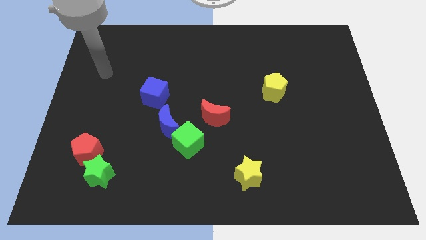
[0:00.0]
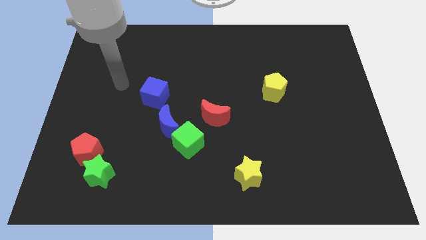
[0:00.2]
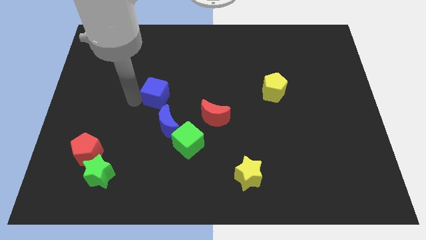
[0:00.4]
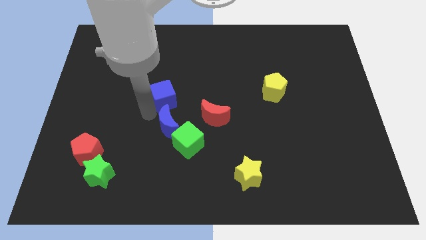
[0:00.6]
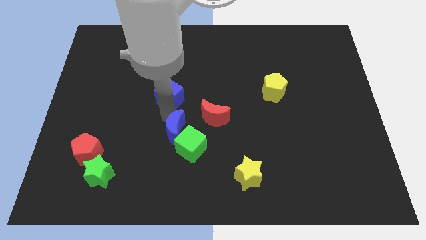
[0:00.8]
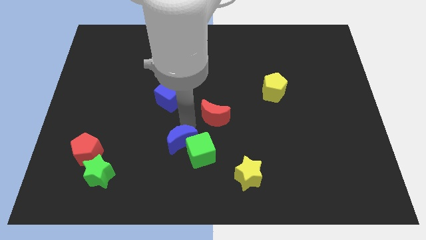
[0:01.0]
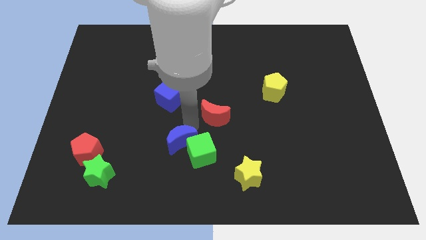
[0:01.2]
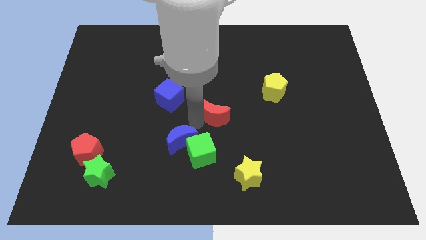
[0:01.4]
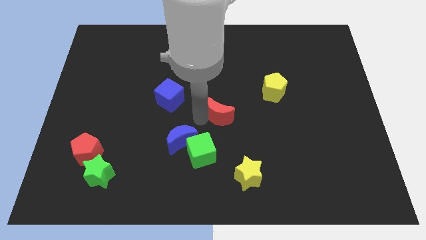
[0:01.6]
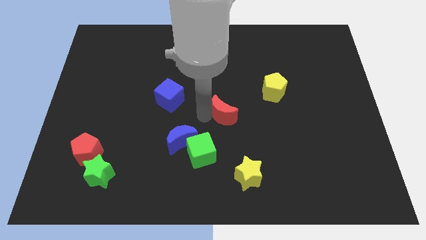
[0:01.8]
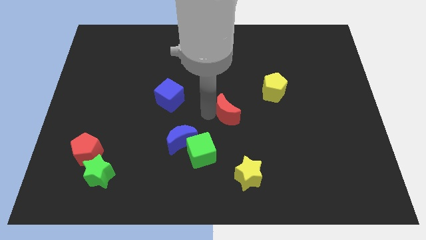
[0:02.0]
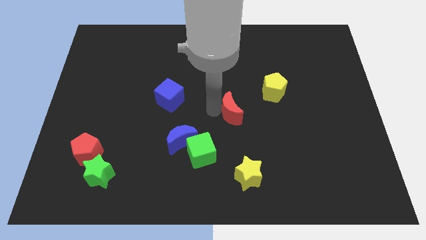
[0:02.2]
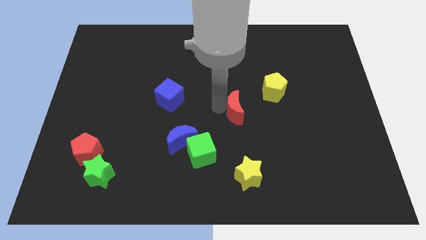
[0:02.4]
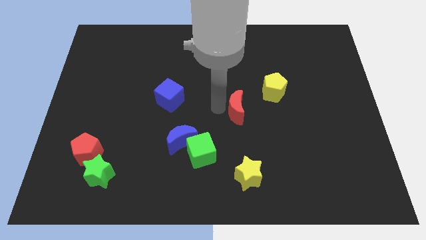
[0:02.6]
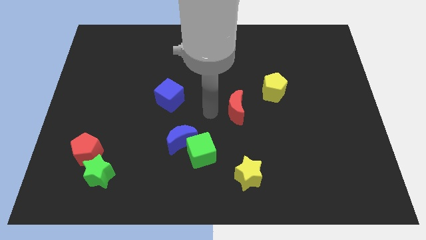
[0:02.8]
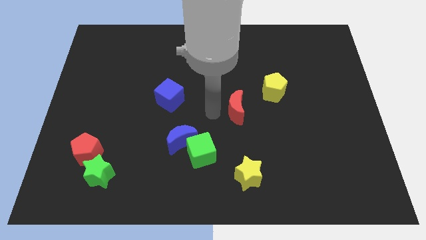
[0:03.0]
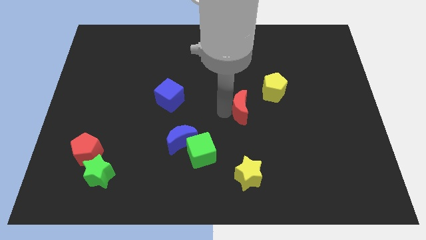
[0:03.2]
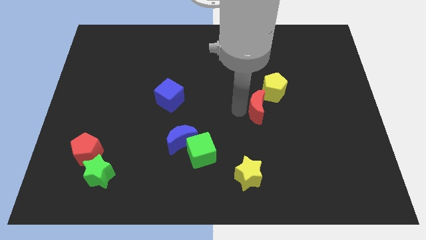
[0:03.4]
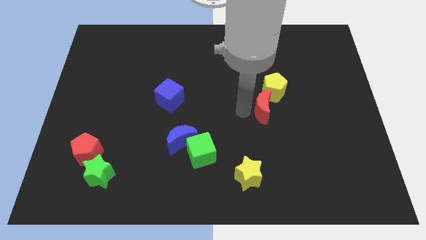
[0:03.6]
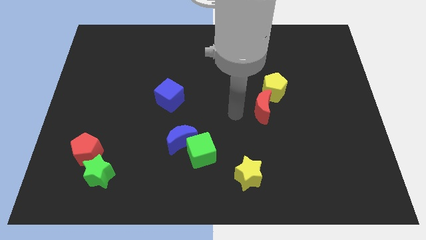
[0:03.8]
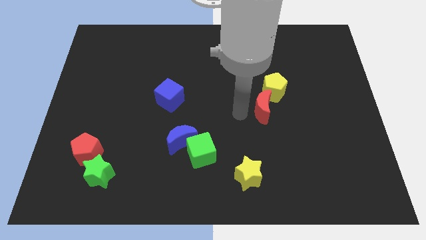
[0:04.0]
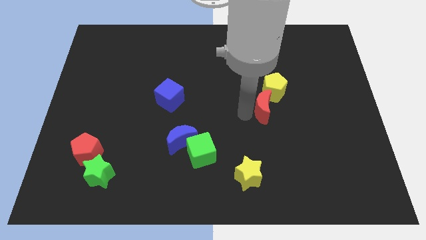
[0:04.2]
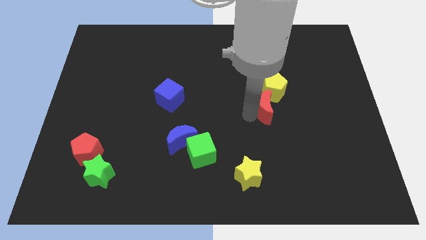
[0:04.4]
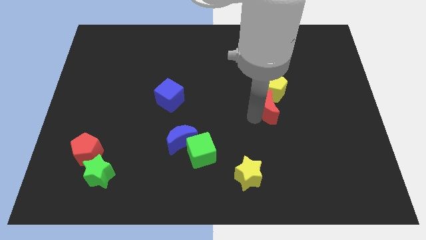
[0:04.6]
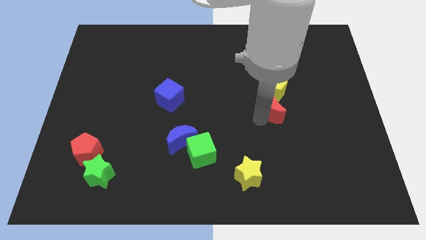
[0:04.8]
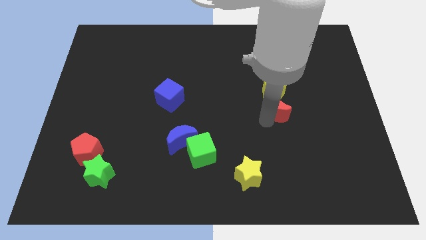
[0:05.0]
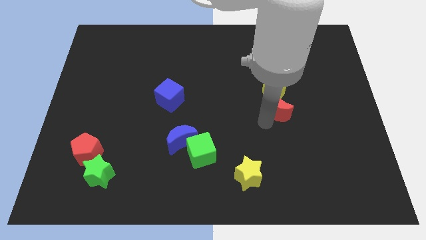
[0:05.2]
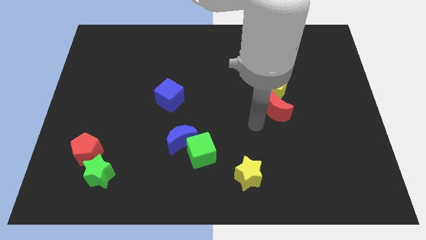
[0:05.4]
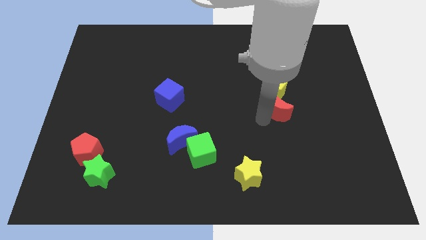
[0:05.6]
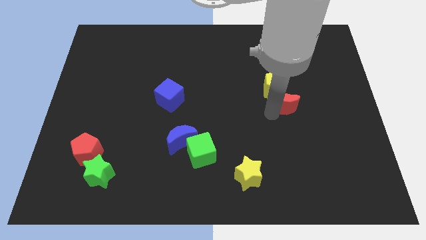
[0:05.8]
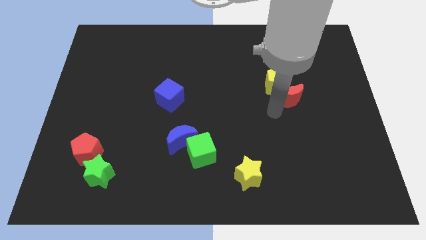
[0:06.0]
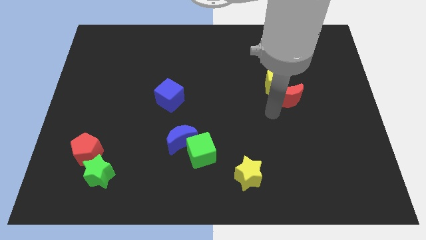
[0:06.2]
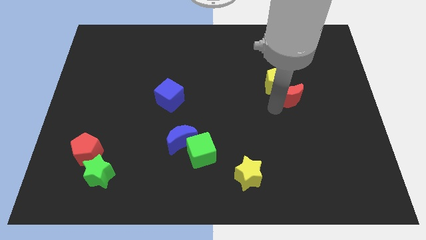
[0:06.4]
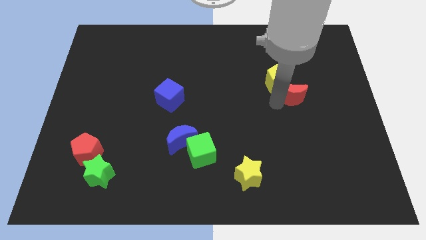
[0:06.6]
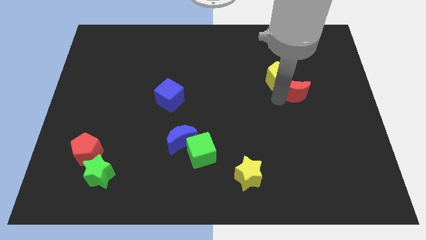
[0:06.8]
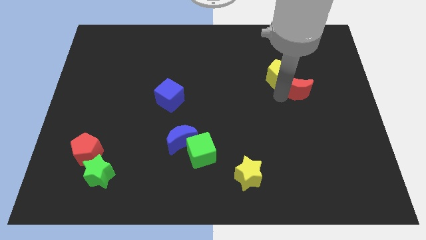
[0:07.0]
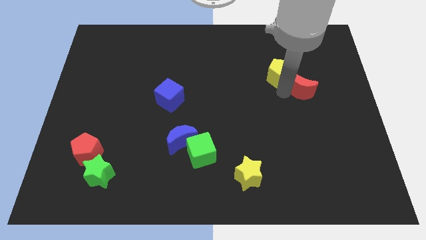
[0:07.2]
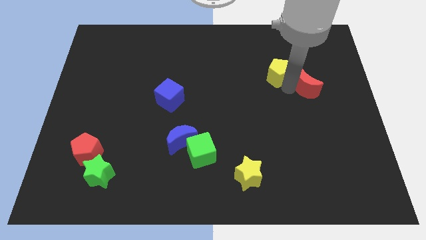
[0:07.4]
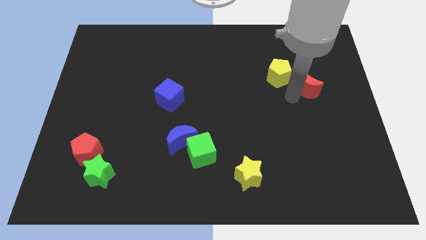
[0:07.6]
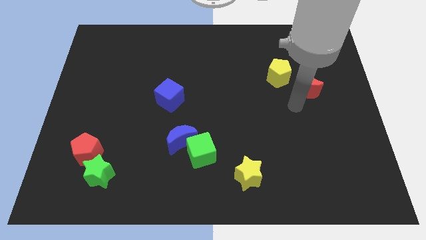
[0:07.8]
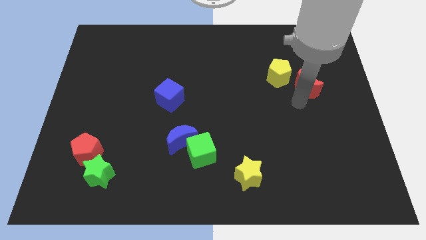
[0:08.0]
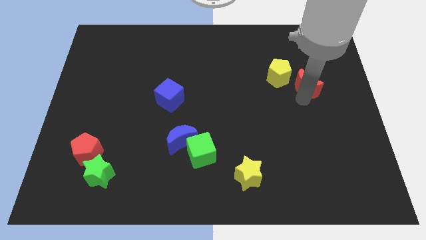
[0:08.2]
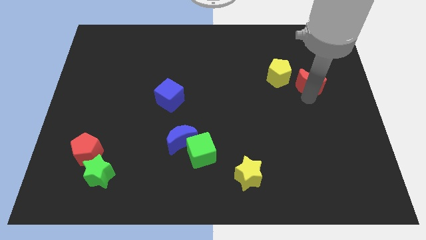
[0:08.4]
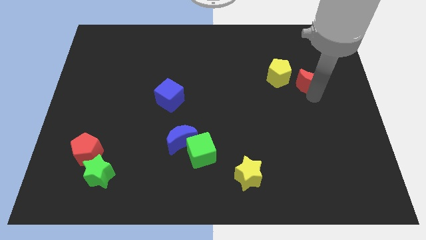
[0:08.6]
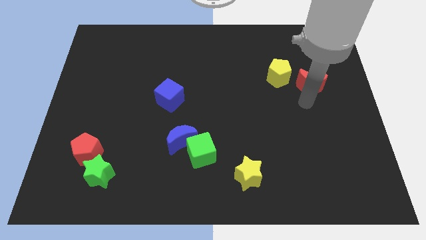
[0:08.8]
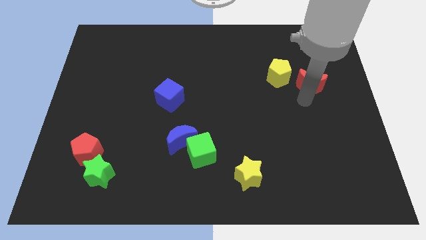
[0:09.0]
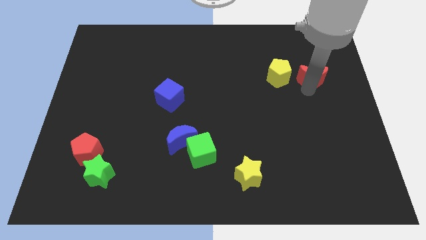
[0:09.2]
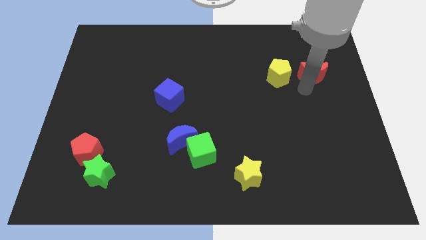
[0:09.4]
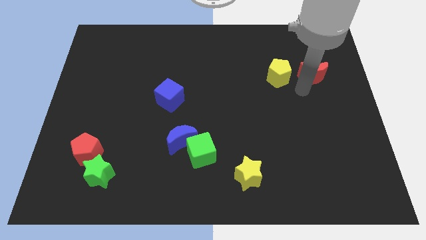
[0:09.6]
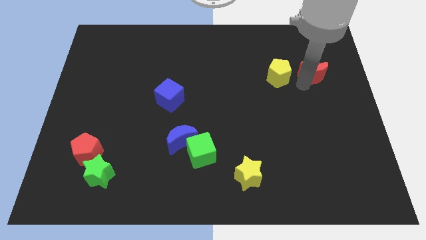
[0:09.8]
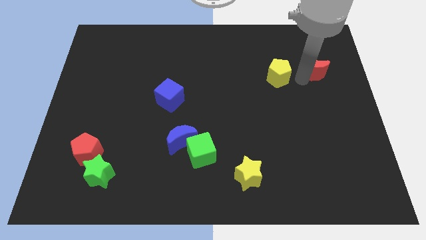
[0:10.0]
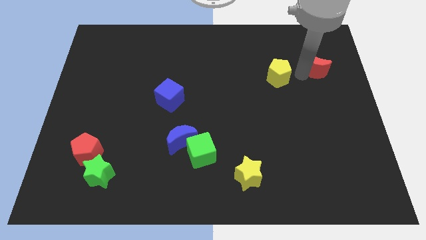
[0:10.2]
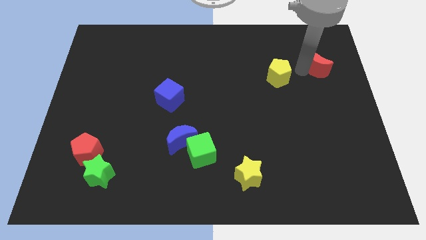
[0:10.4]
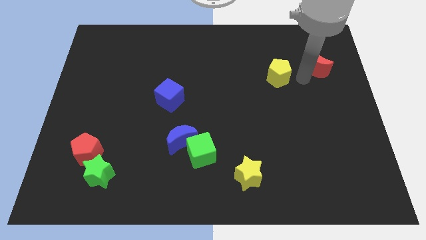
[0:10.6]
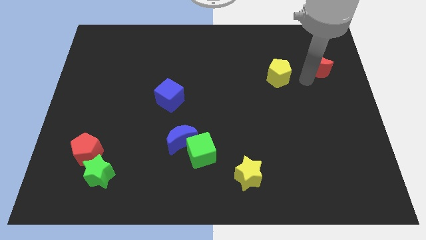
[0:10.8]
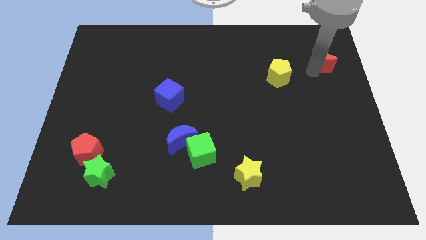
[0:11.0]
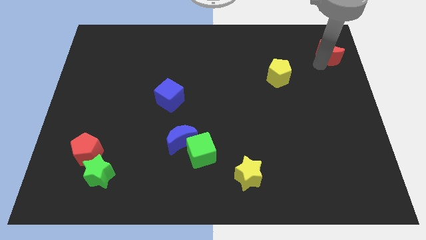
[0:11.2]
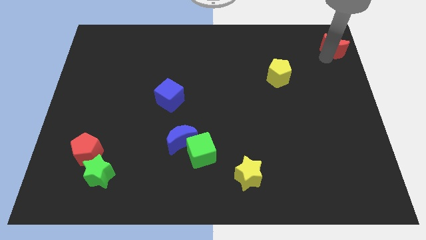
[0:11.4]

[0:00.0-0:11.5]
push the red moon to the top right corner

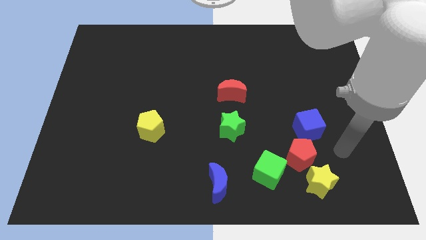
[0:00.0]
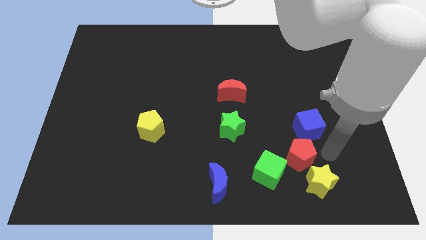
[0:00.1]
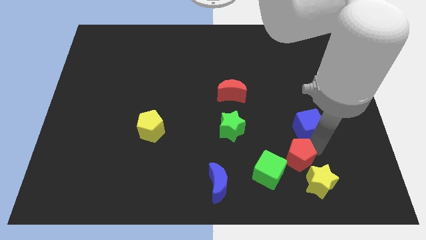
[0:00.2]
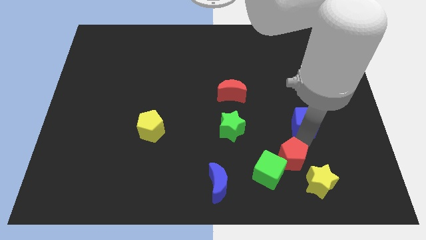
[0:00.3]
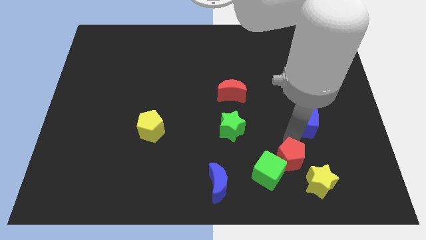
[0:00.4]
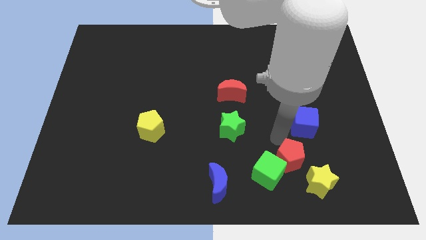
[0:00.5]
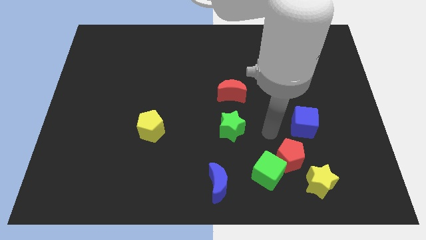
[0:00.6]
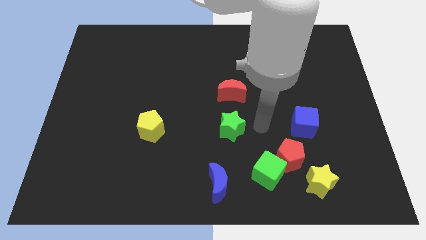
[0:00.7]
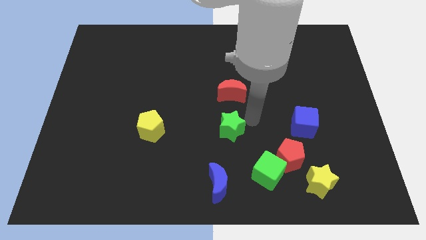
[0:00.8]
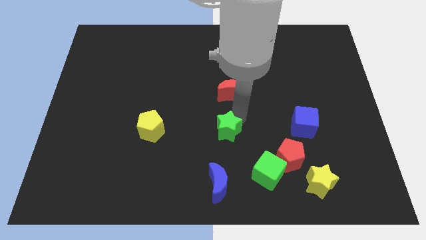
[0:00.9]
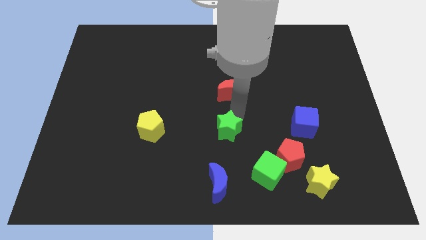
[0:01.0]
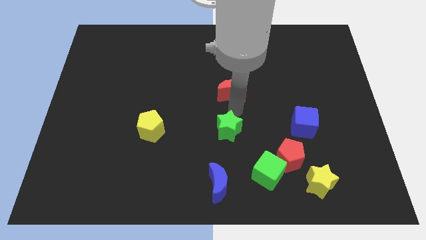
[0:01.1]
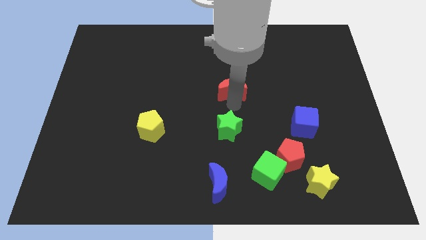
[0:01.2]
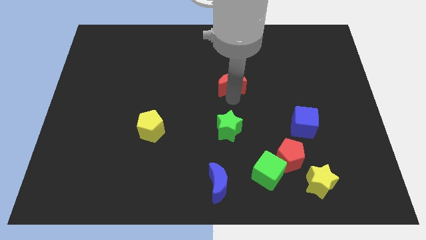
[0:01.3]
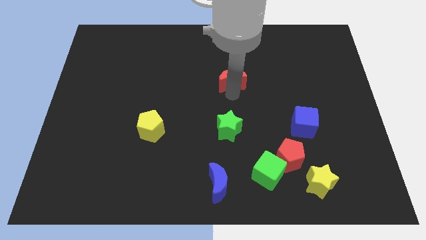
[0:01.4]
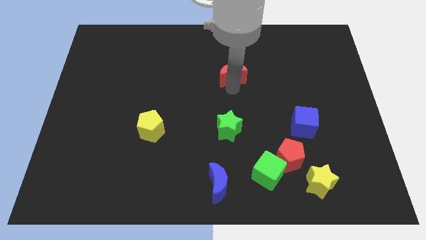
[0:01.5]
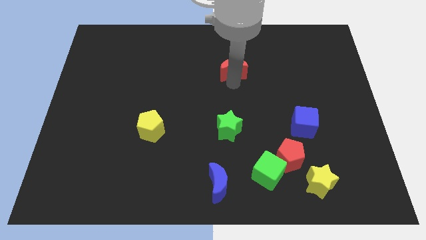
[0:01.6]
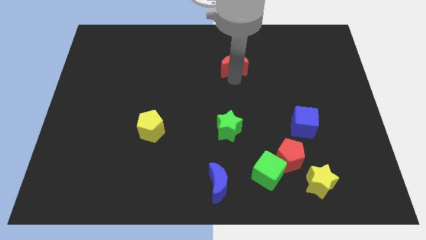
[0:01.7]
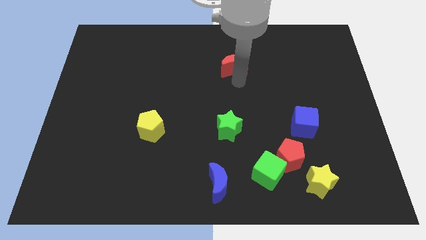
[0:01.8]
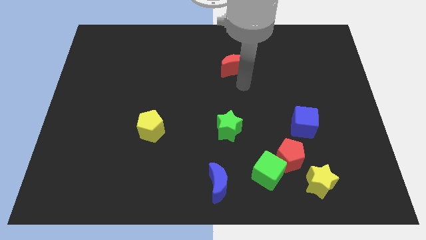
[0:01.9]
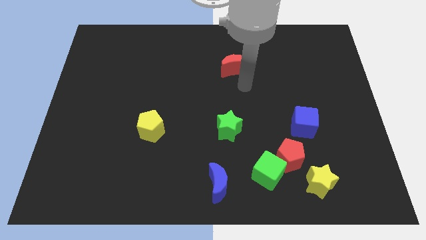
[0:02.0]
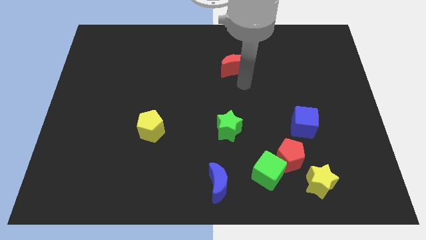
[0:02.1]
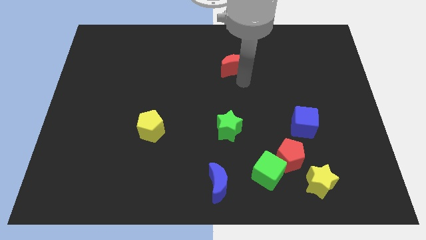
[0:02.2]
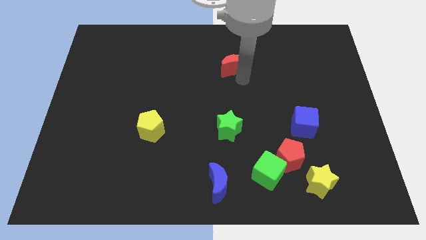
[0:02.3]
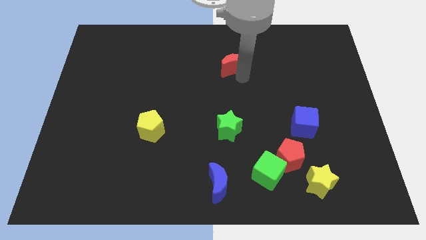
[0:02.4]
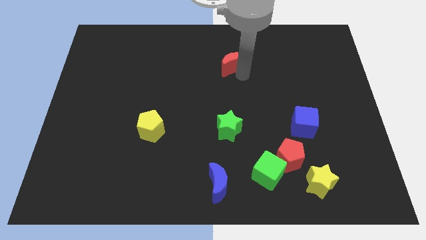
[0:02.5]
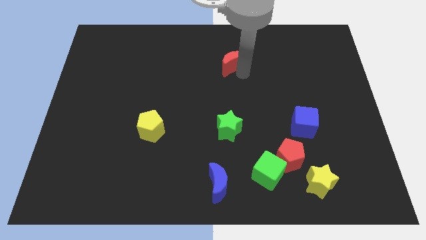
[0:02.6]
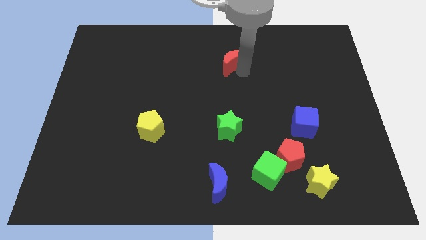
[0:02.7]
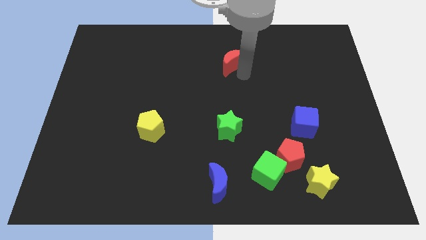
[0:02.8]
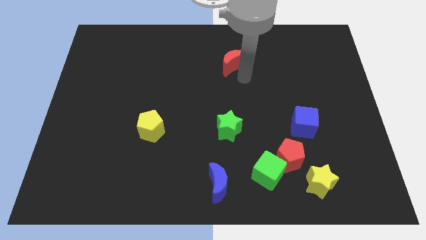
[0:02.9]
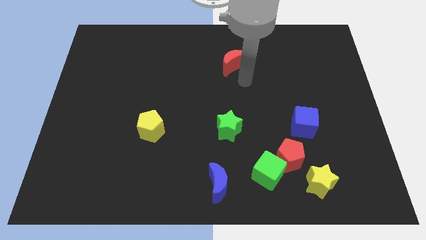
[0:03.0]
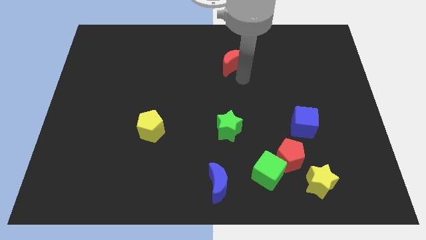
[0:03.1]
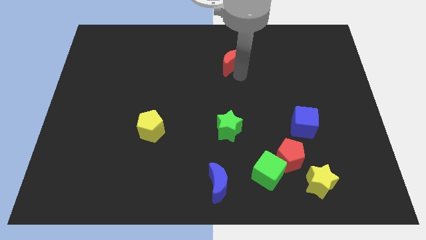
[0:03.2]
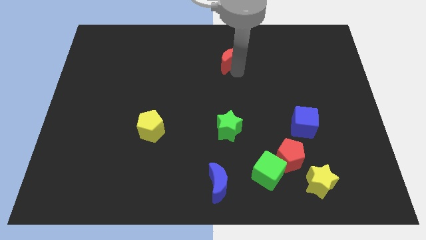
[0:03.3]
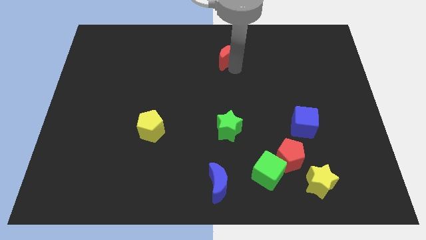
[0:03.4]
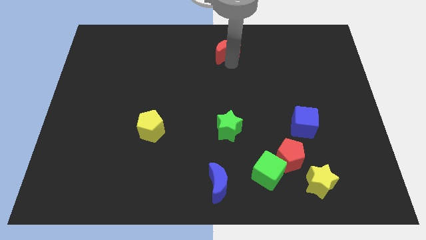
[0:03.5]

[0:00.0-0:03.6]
put the red moon to the top
